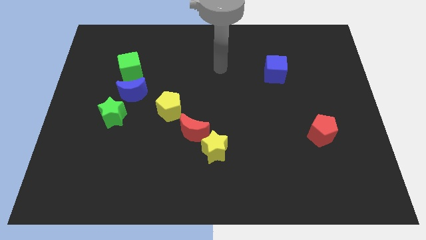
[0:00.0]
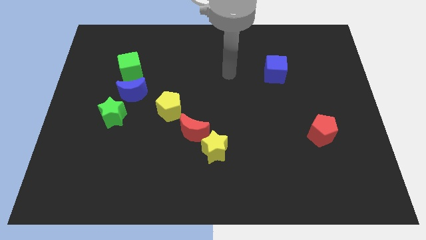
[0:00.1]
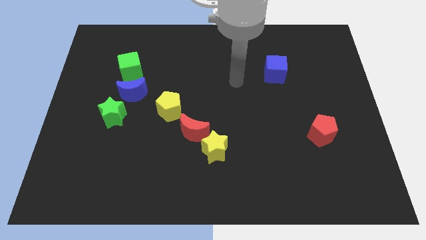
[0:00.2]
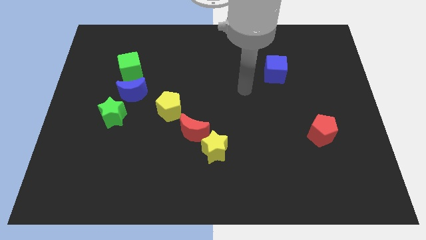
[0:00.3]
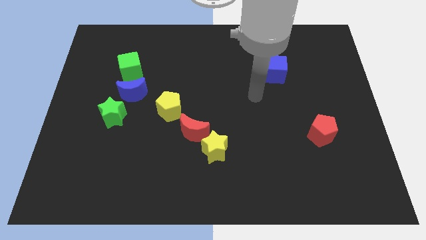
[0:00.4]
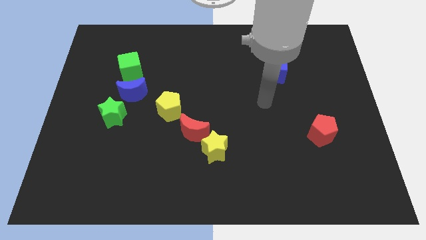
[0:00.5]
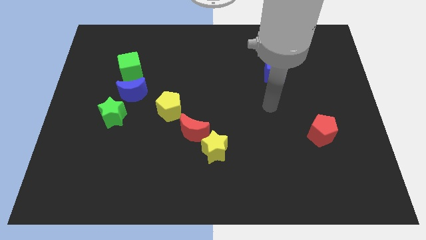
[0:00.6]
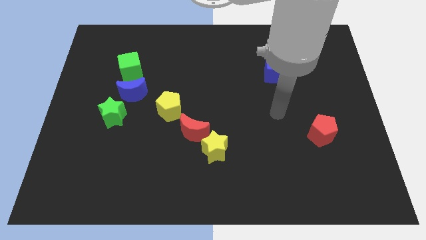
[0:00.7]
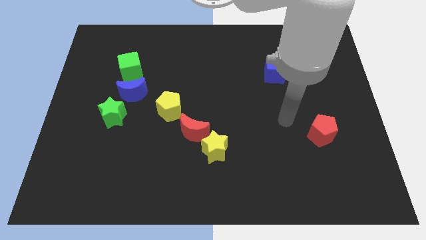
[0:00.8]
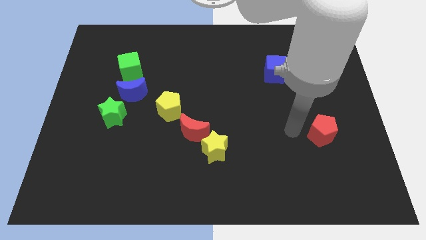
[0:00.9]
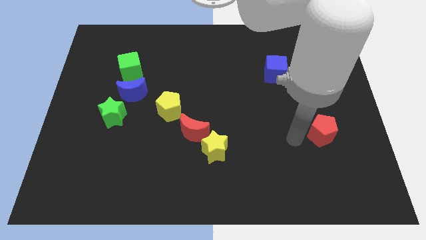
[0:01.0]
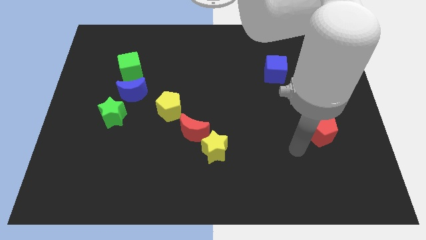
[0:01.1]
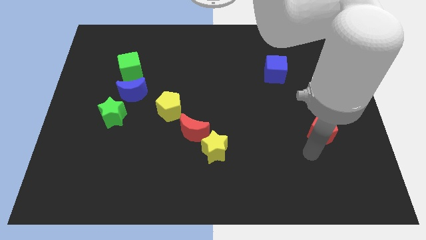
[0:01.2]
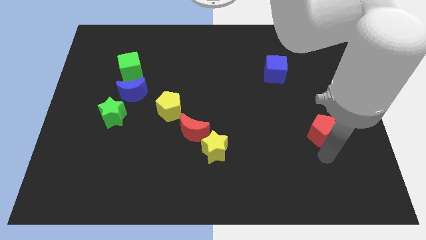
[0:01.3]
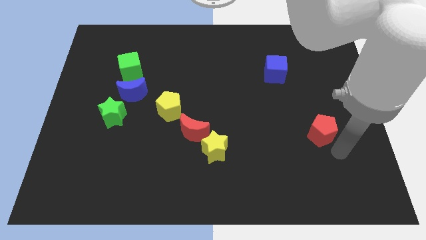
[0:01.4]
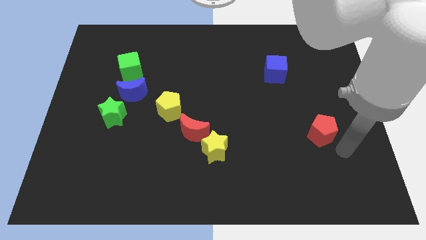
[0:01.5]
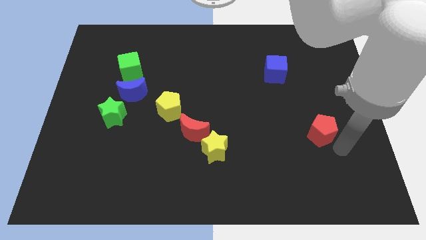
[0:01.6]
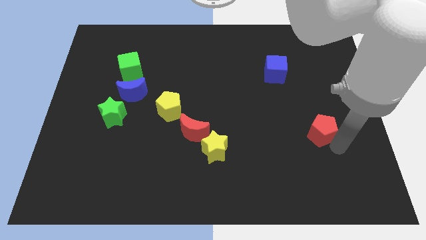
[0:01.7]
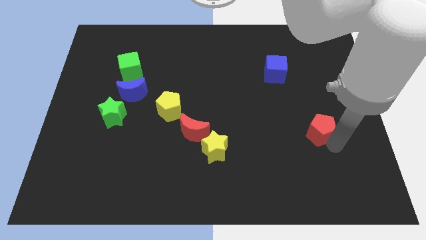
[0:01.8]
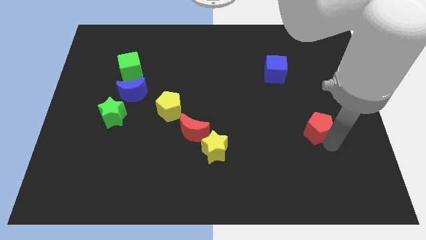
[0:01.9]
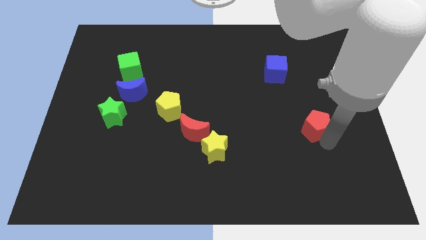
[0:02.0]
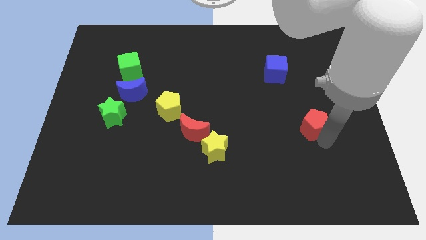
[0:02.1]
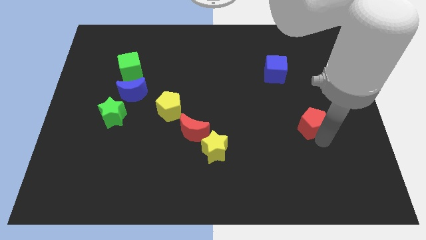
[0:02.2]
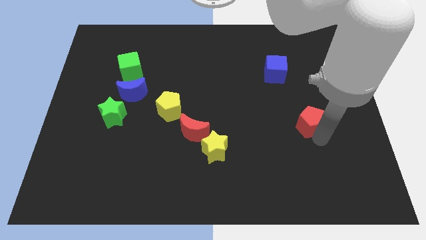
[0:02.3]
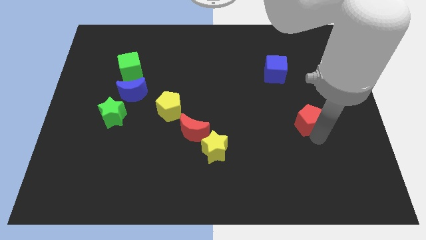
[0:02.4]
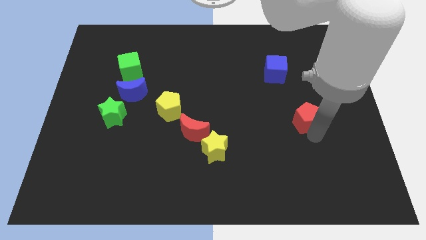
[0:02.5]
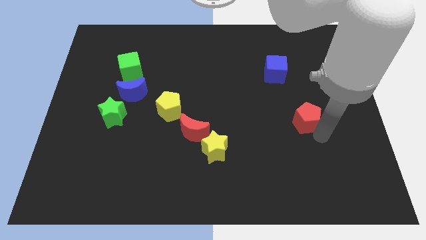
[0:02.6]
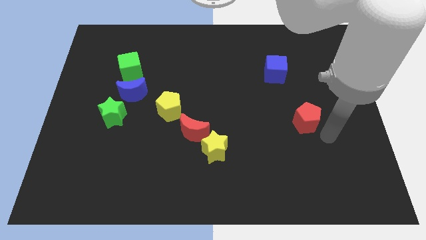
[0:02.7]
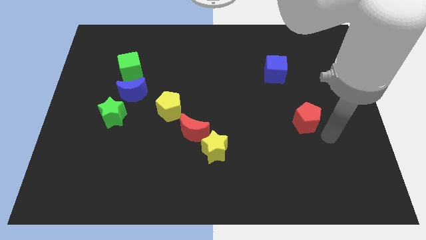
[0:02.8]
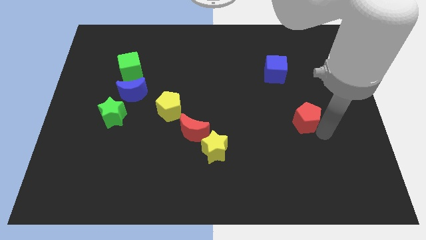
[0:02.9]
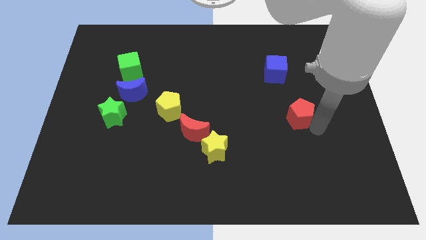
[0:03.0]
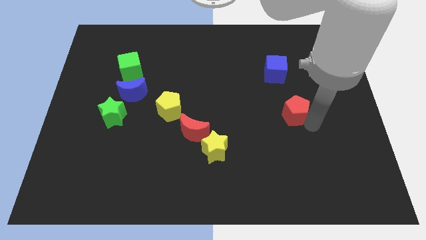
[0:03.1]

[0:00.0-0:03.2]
slide the red pentagon diagonally up and left a little bit

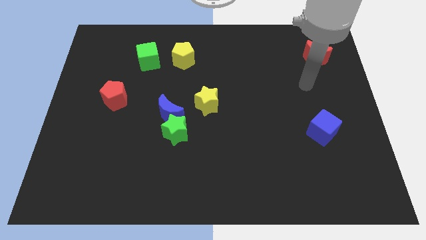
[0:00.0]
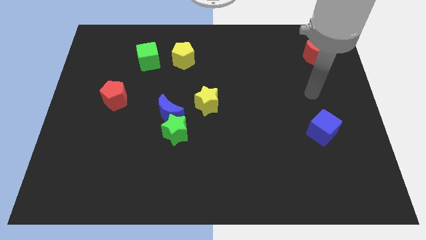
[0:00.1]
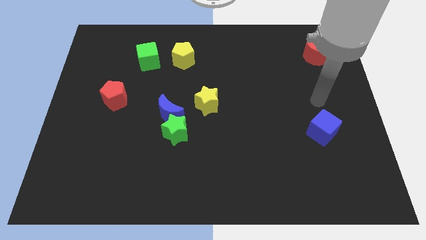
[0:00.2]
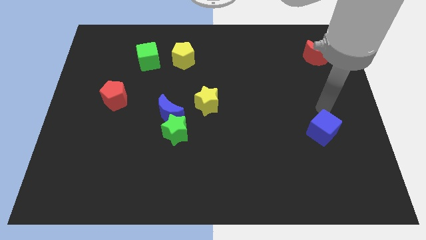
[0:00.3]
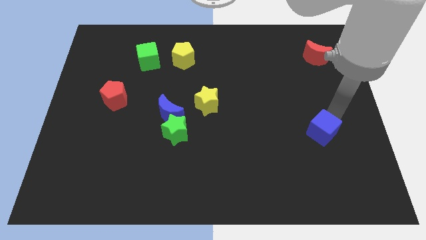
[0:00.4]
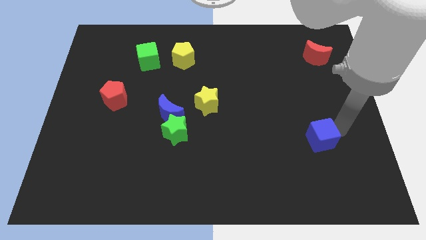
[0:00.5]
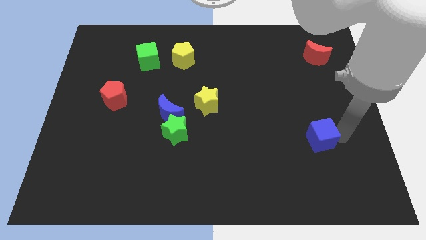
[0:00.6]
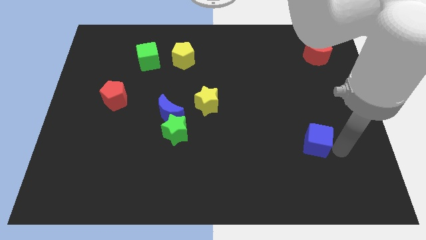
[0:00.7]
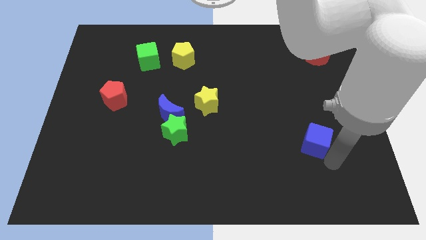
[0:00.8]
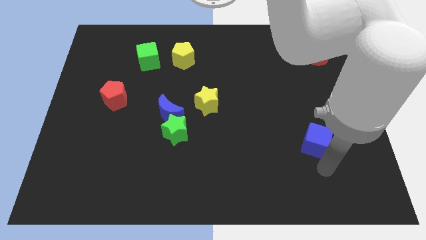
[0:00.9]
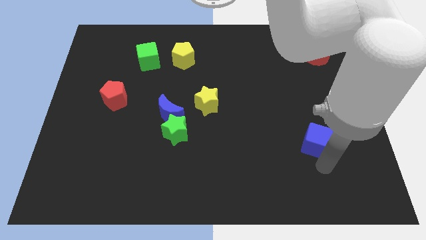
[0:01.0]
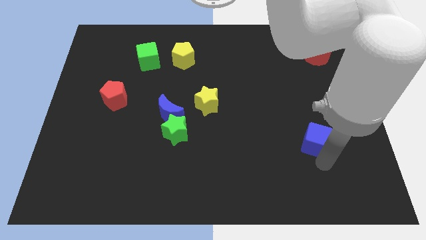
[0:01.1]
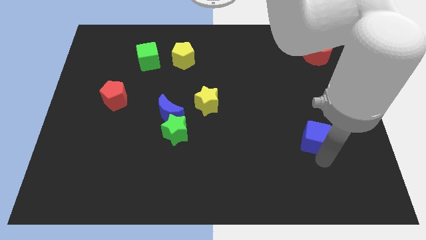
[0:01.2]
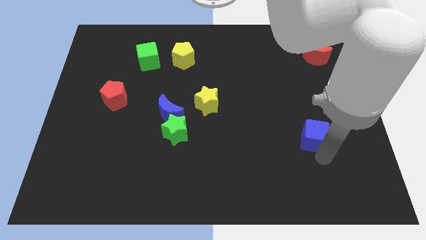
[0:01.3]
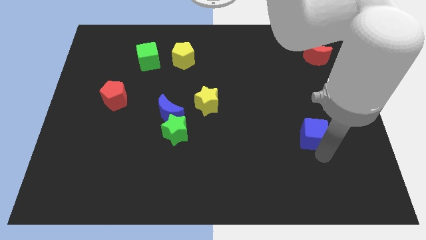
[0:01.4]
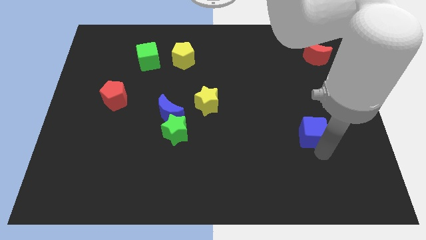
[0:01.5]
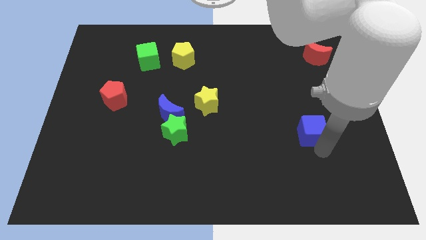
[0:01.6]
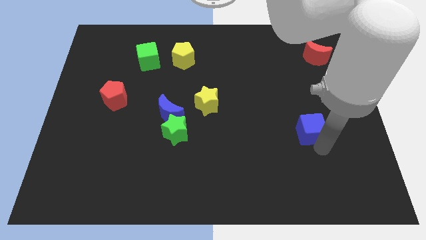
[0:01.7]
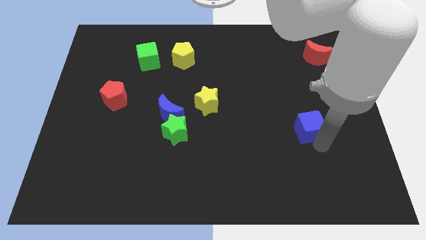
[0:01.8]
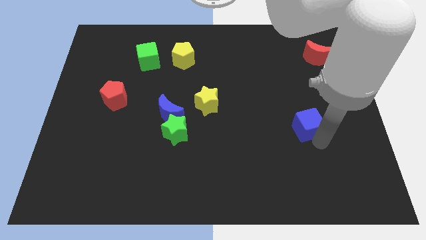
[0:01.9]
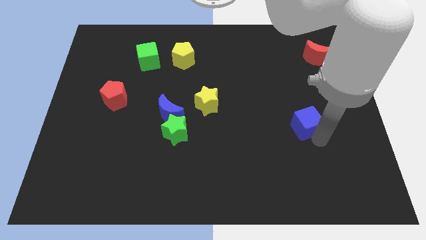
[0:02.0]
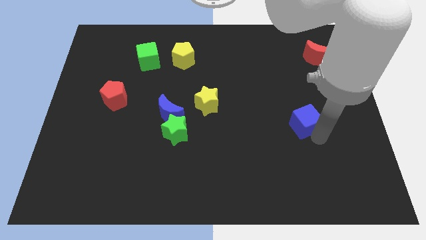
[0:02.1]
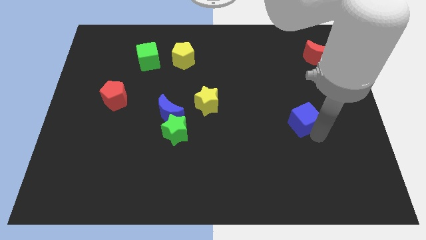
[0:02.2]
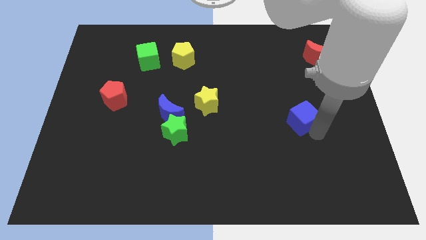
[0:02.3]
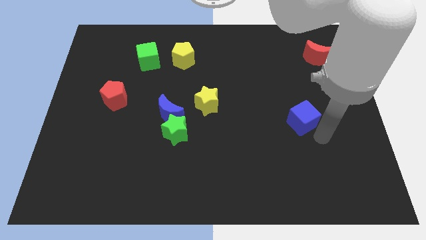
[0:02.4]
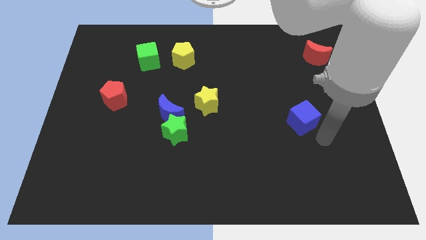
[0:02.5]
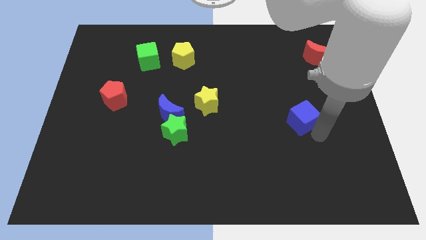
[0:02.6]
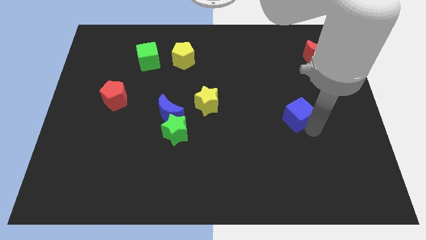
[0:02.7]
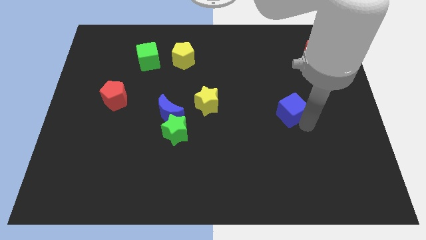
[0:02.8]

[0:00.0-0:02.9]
slightly move the blue cube up and then to the left

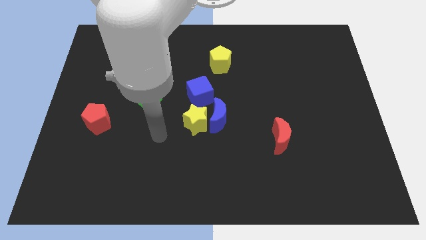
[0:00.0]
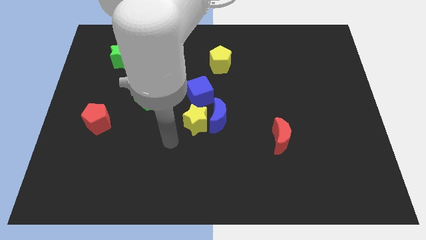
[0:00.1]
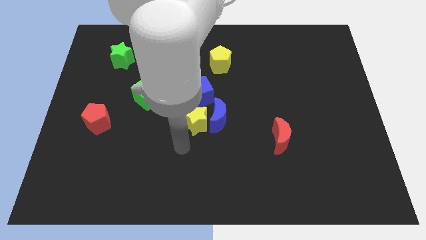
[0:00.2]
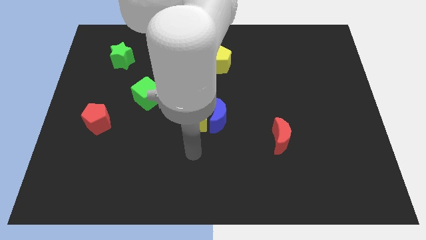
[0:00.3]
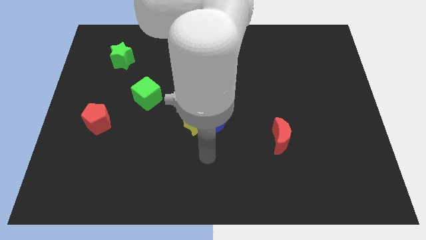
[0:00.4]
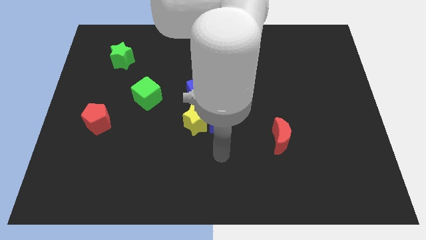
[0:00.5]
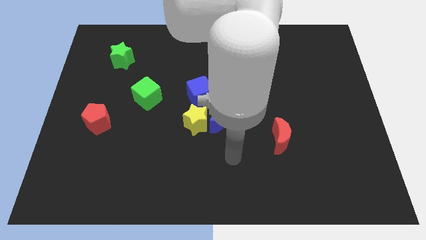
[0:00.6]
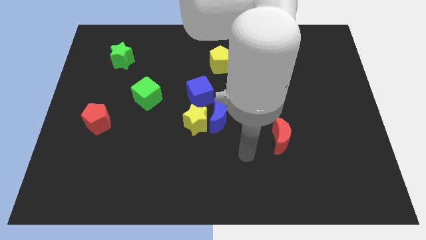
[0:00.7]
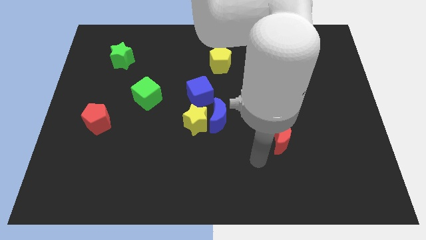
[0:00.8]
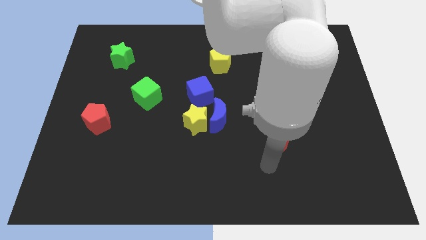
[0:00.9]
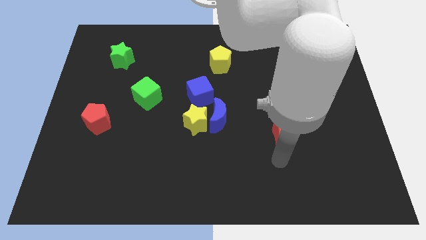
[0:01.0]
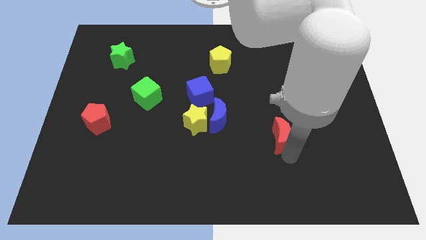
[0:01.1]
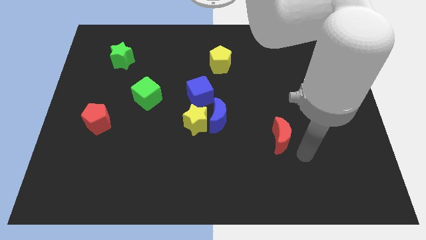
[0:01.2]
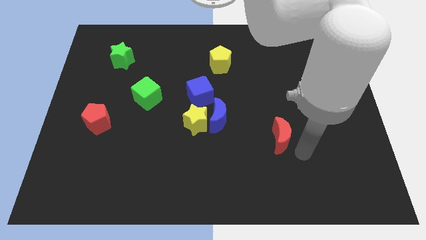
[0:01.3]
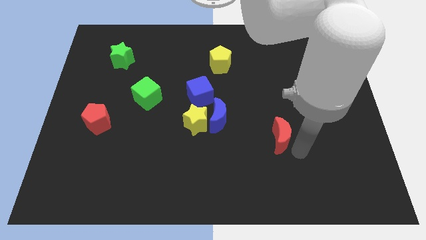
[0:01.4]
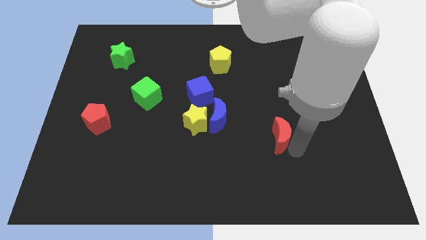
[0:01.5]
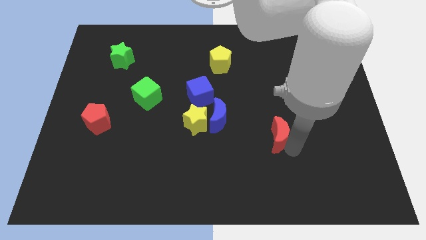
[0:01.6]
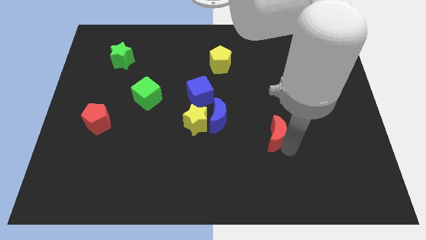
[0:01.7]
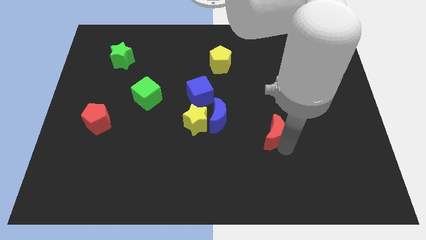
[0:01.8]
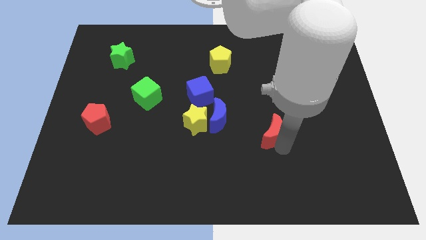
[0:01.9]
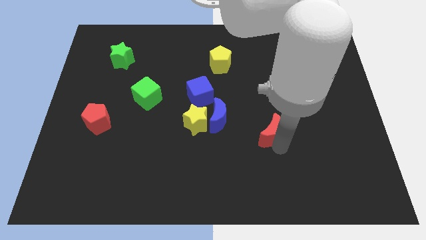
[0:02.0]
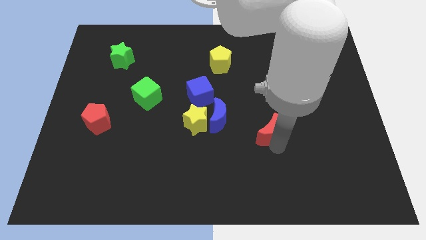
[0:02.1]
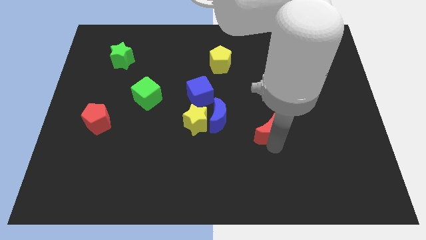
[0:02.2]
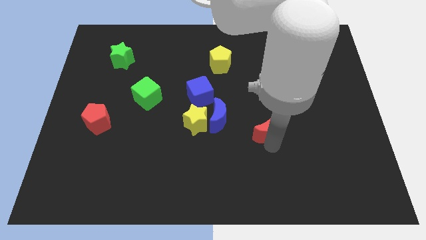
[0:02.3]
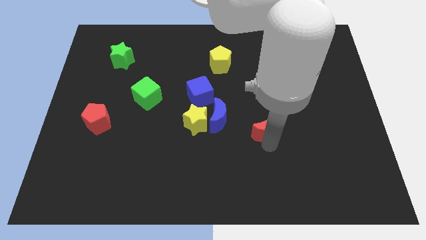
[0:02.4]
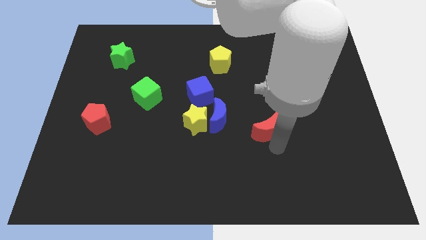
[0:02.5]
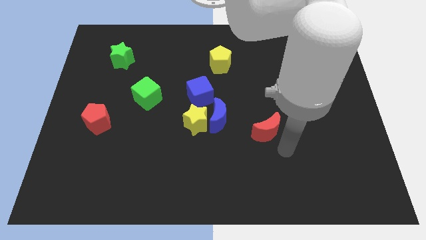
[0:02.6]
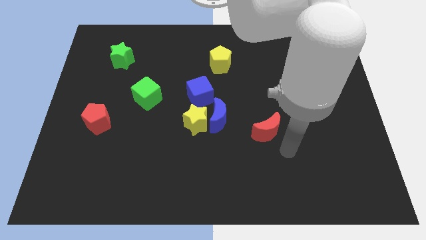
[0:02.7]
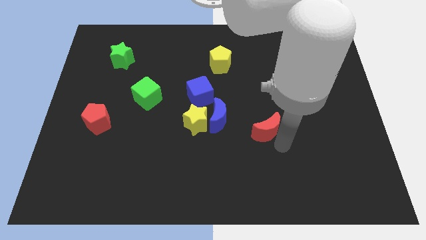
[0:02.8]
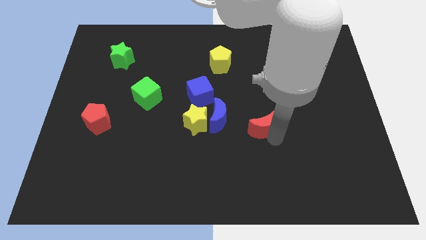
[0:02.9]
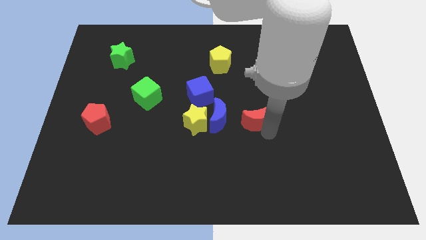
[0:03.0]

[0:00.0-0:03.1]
slightly slide the red moon diagonally up and to the left
